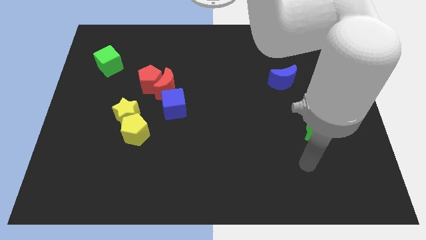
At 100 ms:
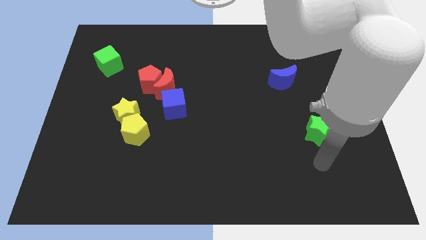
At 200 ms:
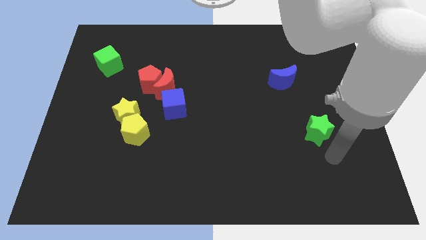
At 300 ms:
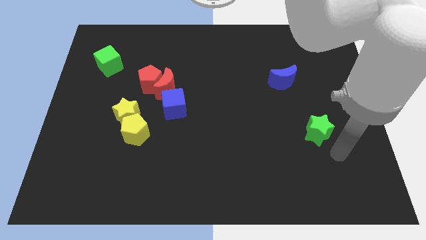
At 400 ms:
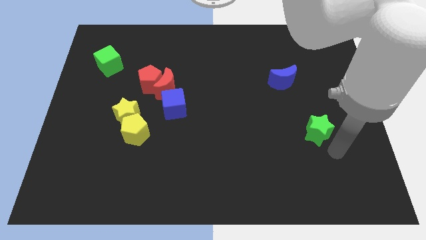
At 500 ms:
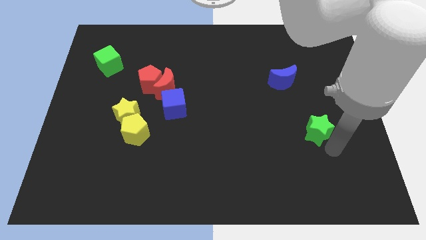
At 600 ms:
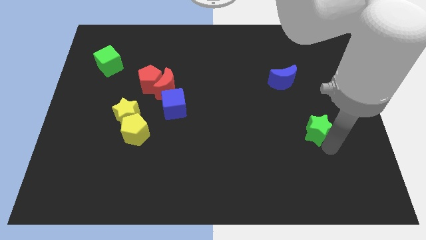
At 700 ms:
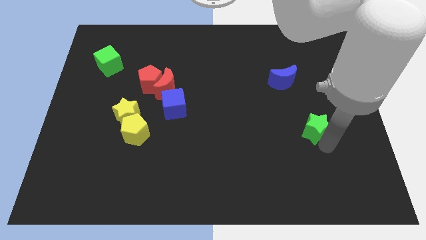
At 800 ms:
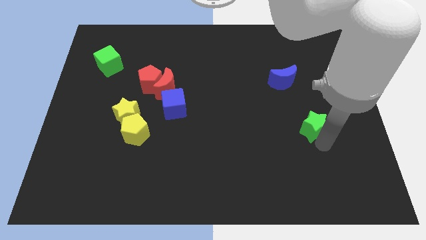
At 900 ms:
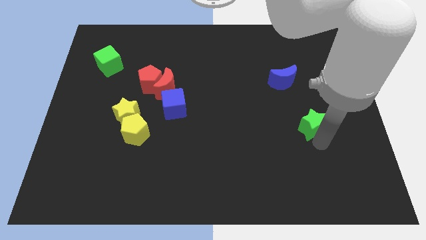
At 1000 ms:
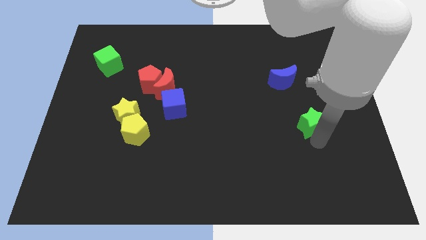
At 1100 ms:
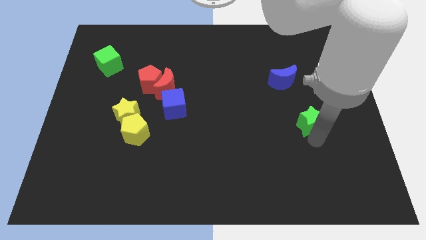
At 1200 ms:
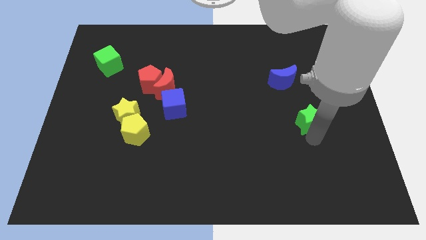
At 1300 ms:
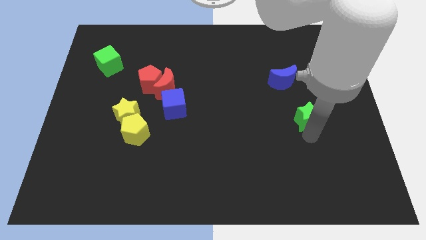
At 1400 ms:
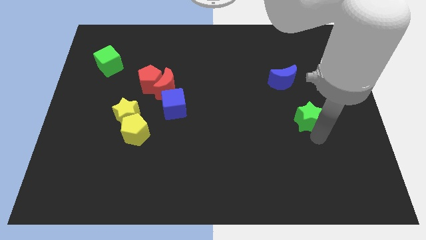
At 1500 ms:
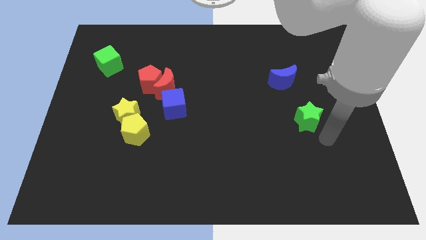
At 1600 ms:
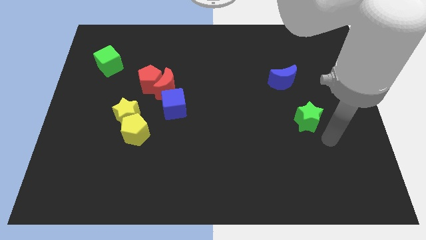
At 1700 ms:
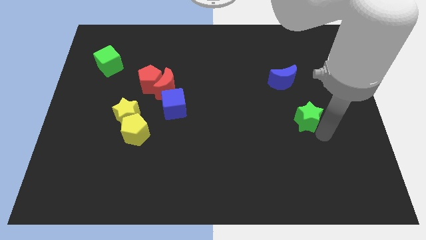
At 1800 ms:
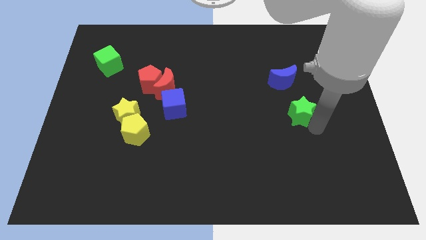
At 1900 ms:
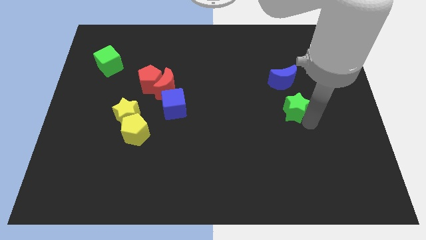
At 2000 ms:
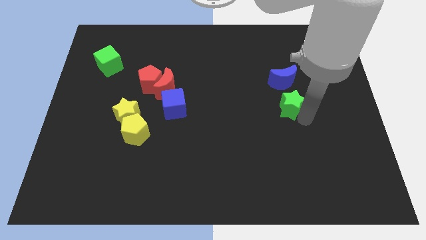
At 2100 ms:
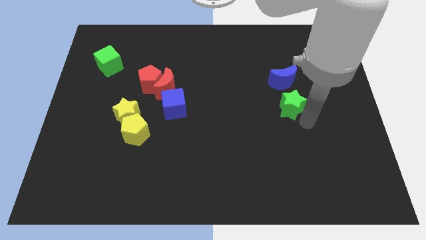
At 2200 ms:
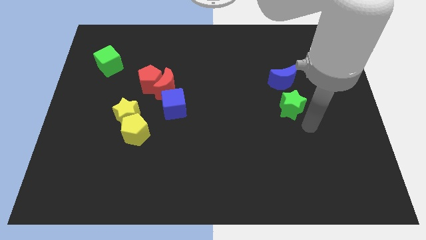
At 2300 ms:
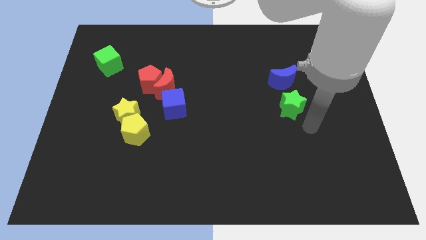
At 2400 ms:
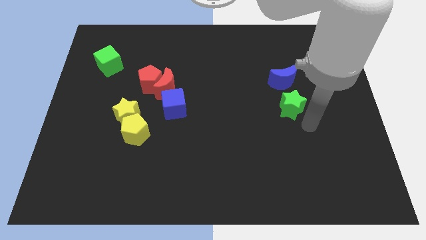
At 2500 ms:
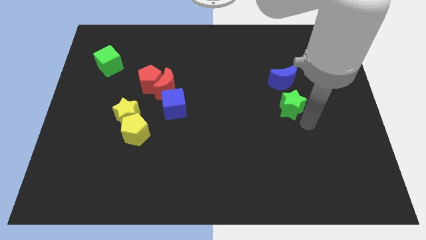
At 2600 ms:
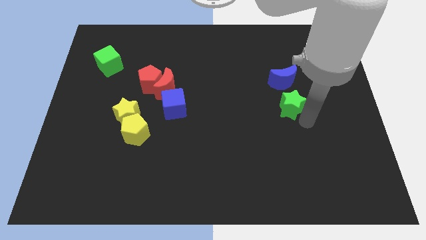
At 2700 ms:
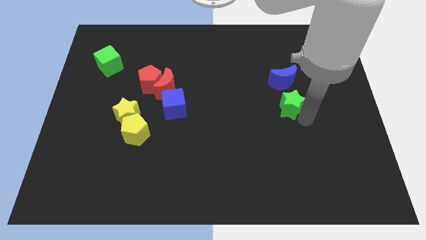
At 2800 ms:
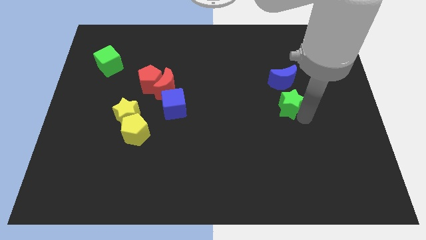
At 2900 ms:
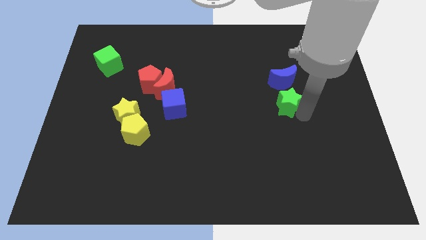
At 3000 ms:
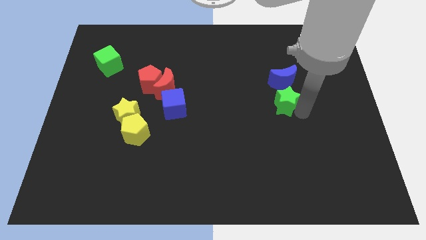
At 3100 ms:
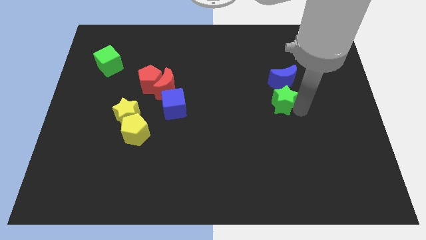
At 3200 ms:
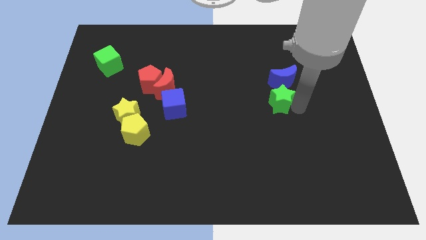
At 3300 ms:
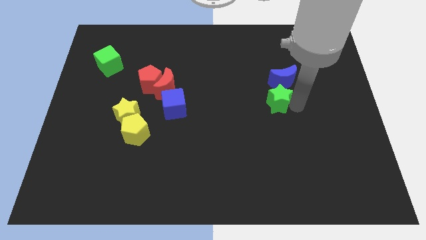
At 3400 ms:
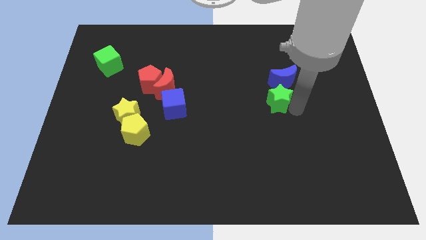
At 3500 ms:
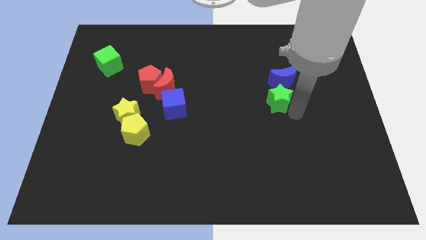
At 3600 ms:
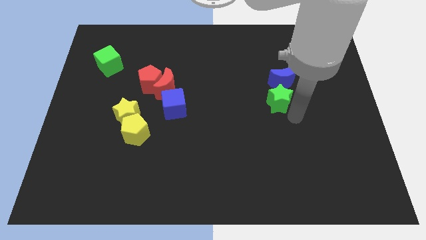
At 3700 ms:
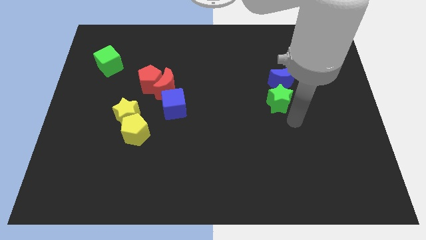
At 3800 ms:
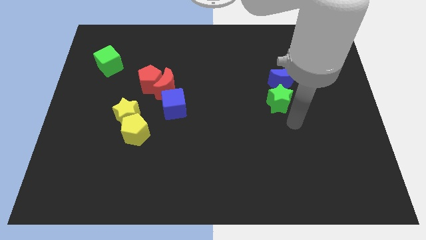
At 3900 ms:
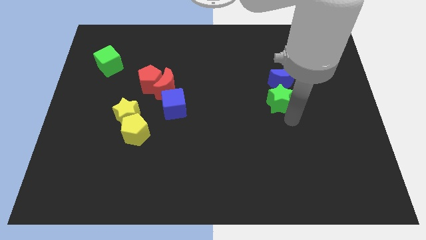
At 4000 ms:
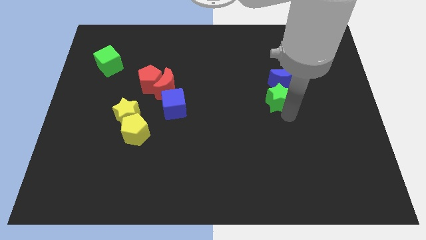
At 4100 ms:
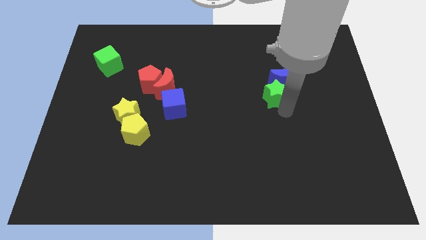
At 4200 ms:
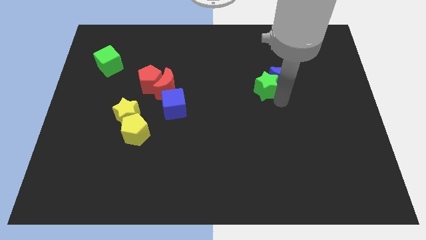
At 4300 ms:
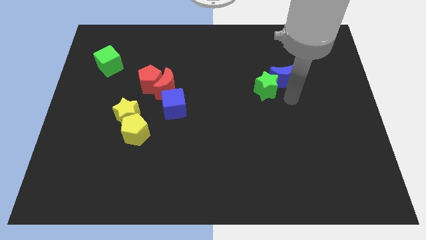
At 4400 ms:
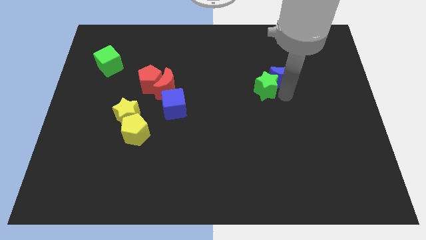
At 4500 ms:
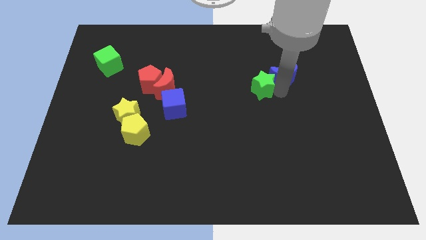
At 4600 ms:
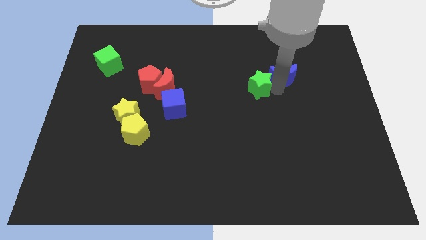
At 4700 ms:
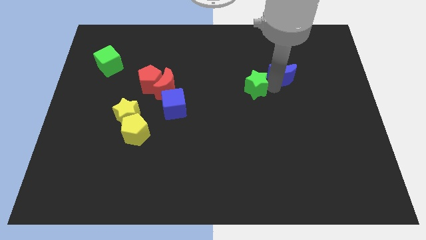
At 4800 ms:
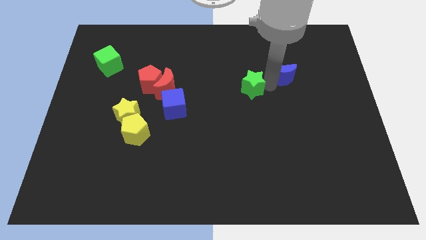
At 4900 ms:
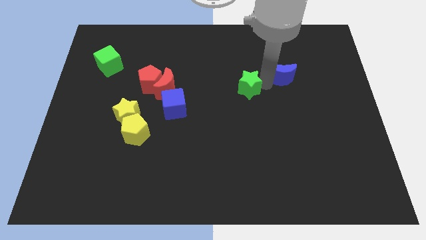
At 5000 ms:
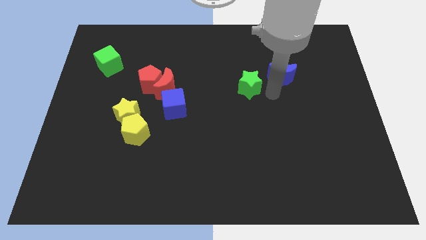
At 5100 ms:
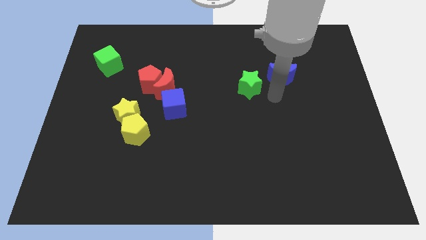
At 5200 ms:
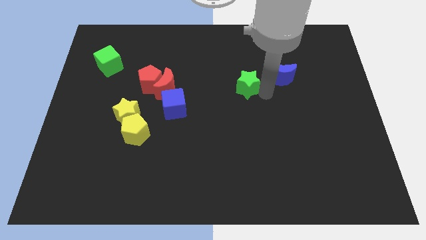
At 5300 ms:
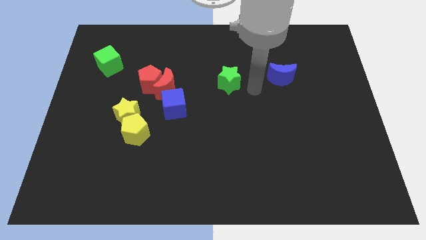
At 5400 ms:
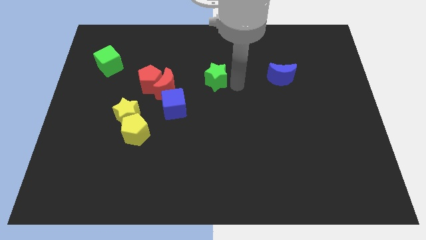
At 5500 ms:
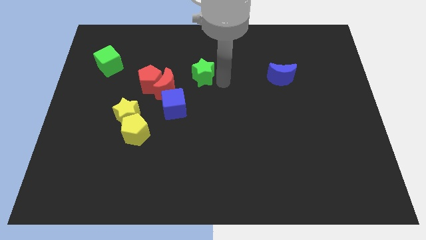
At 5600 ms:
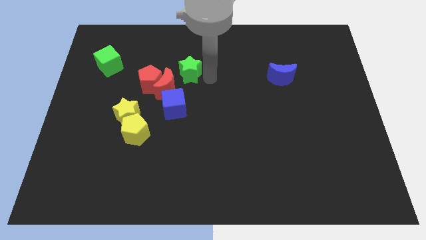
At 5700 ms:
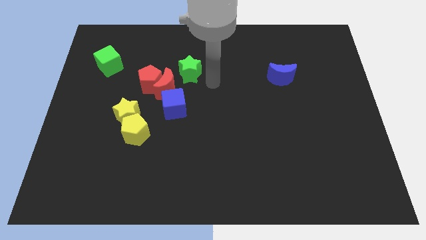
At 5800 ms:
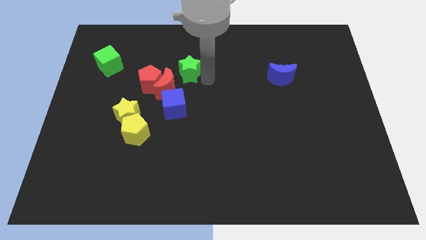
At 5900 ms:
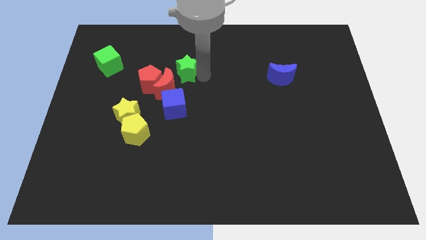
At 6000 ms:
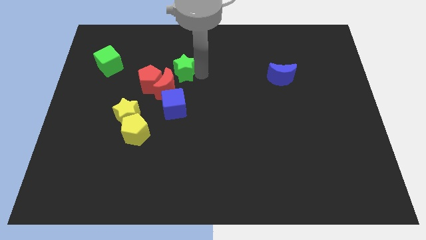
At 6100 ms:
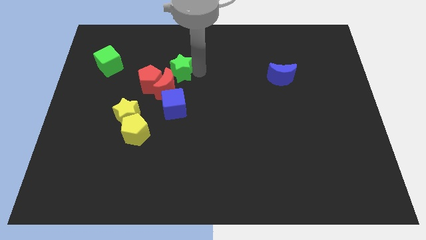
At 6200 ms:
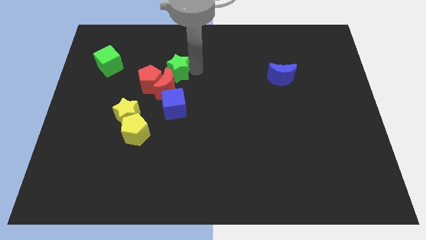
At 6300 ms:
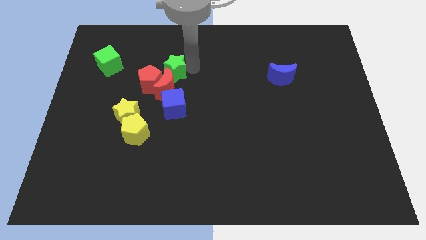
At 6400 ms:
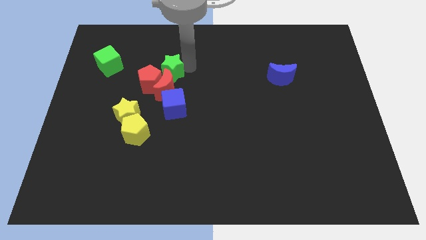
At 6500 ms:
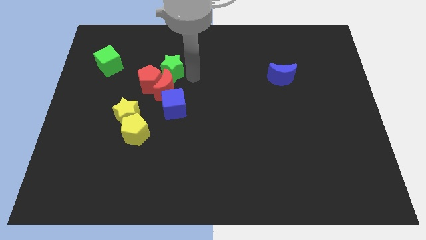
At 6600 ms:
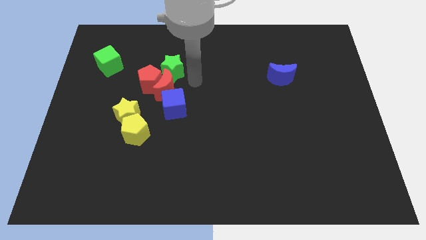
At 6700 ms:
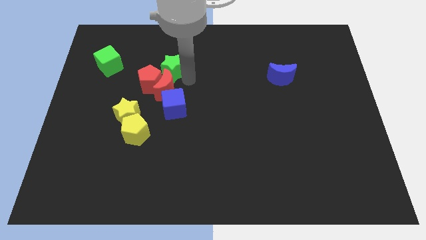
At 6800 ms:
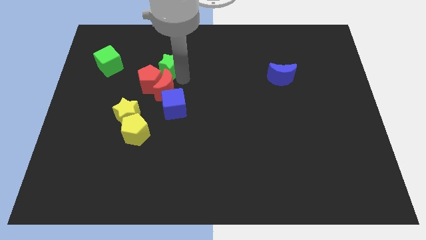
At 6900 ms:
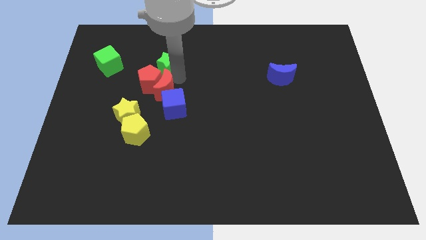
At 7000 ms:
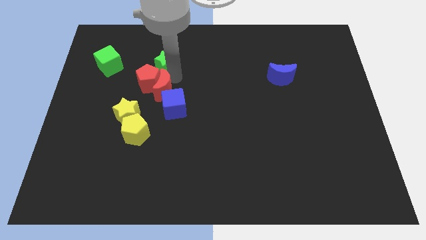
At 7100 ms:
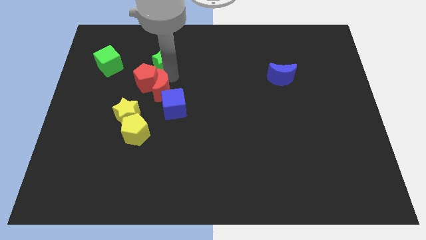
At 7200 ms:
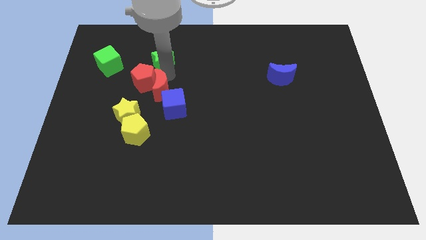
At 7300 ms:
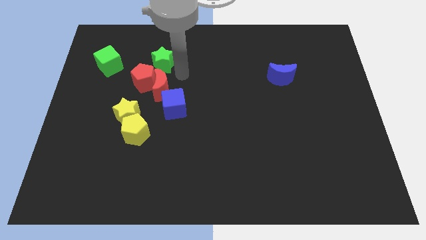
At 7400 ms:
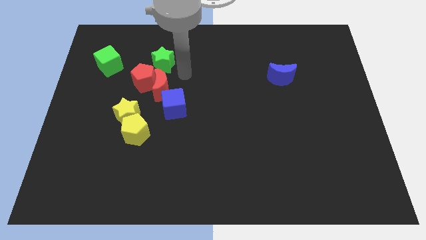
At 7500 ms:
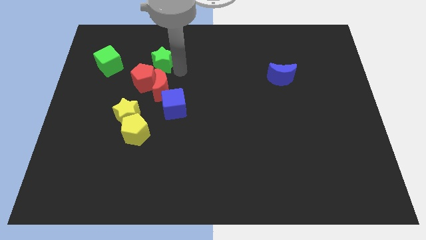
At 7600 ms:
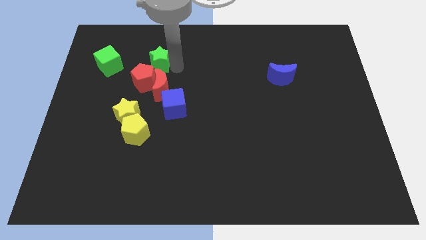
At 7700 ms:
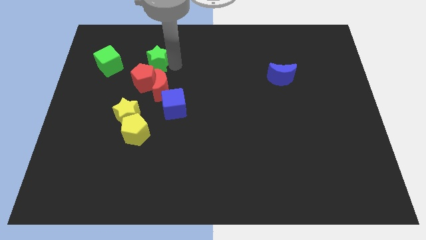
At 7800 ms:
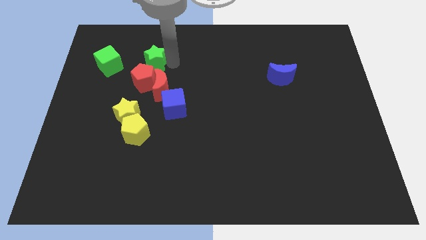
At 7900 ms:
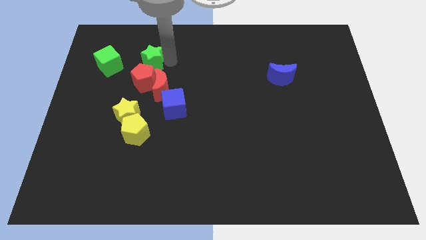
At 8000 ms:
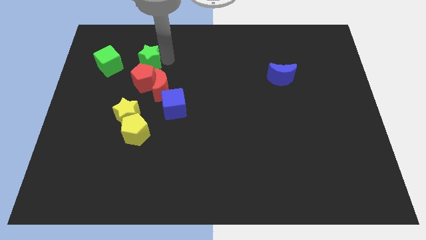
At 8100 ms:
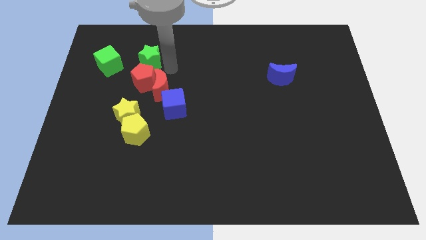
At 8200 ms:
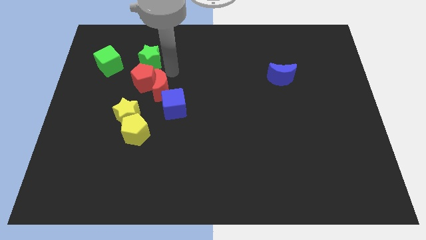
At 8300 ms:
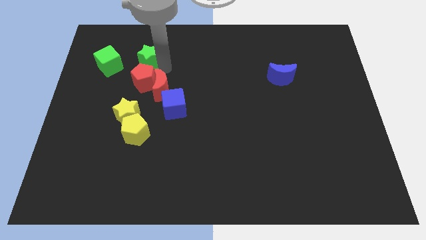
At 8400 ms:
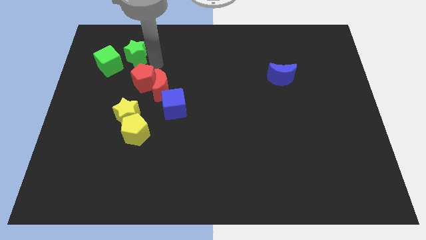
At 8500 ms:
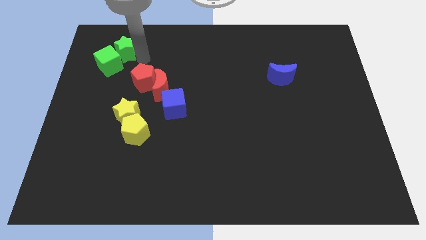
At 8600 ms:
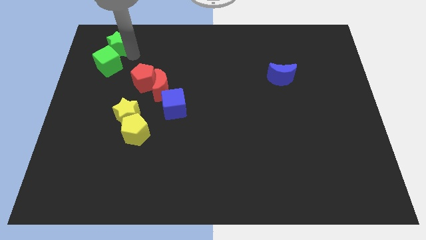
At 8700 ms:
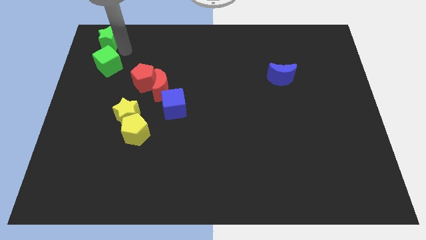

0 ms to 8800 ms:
slide the green star to the top left
